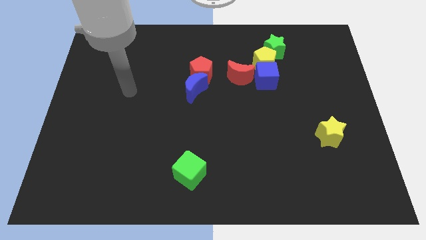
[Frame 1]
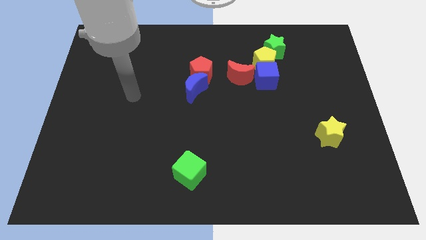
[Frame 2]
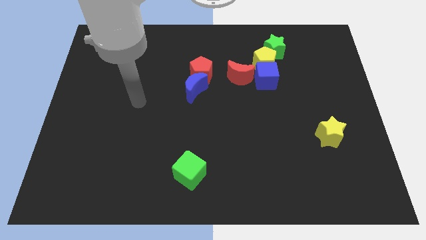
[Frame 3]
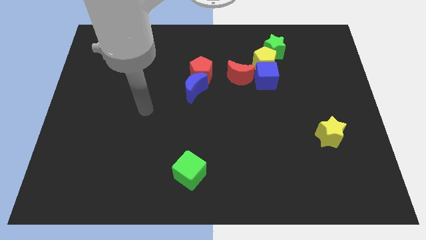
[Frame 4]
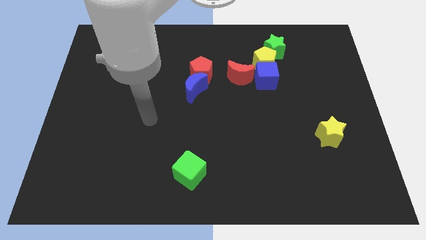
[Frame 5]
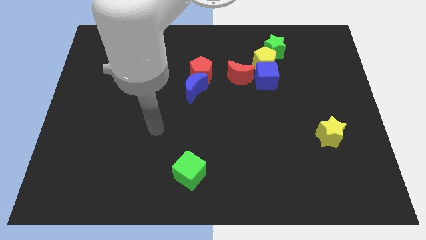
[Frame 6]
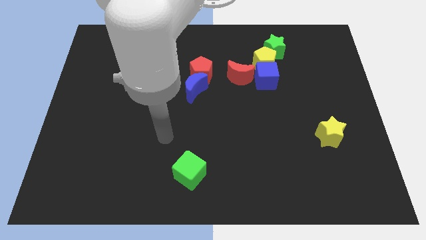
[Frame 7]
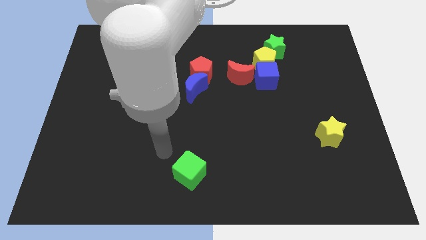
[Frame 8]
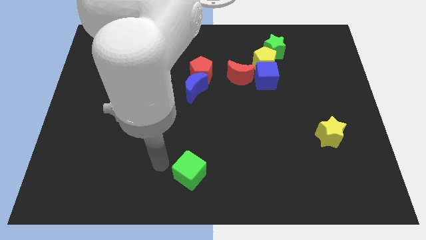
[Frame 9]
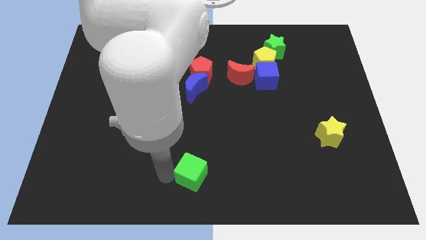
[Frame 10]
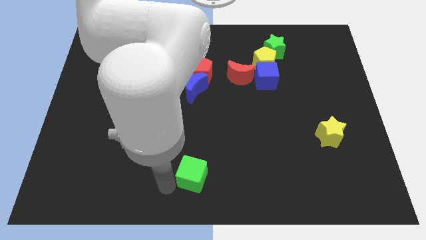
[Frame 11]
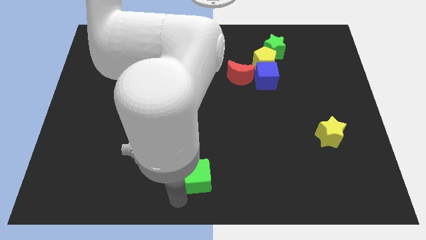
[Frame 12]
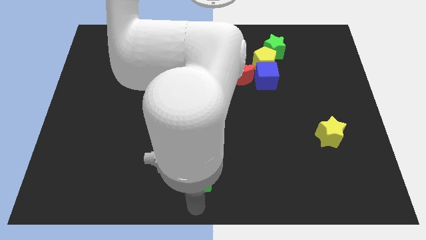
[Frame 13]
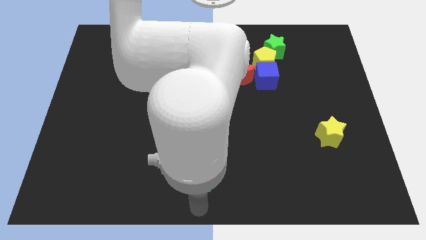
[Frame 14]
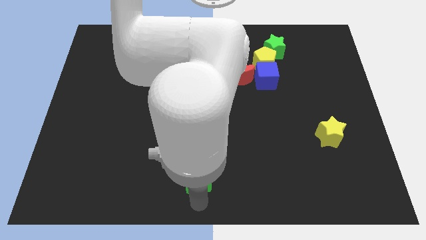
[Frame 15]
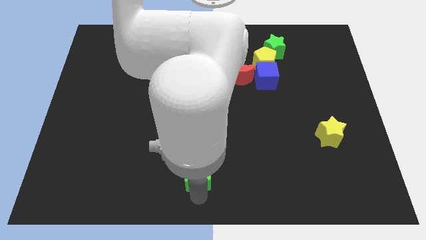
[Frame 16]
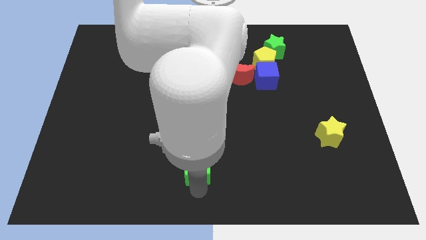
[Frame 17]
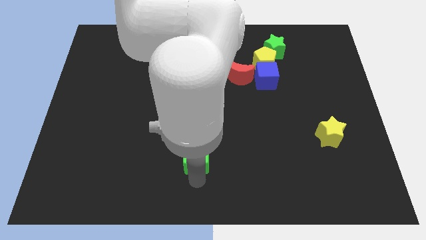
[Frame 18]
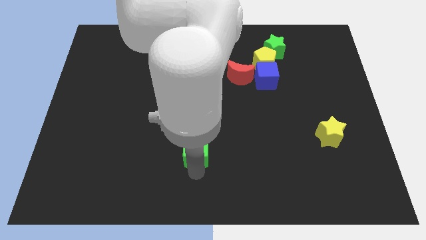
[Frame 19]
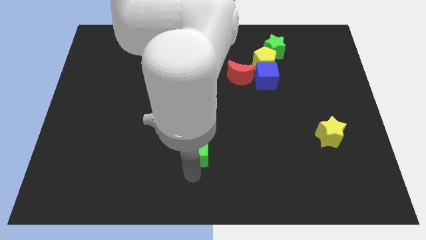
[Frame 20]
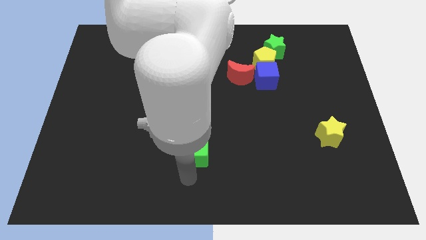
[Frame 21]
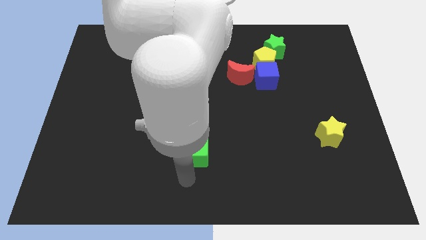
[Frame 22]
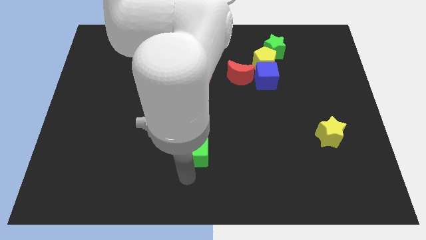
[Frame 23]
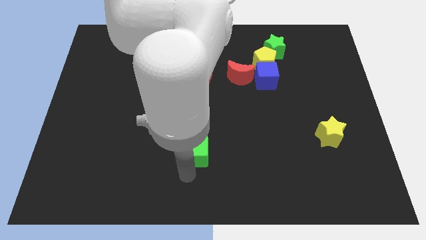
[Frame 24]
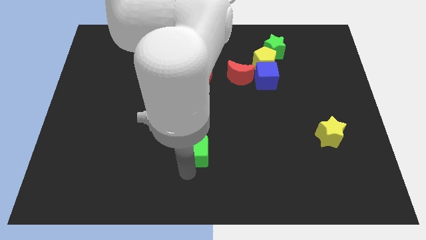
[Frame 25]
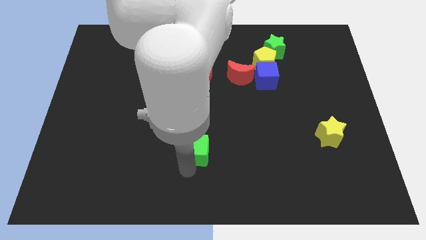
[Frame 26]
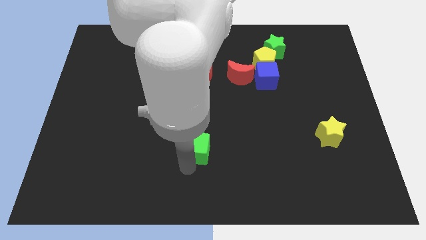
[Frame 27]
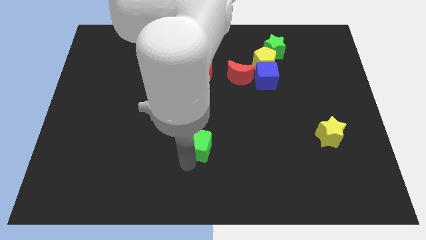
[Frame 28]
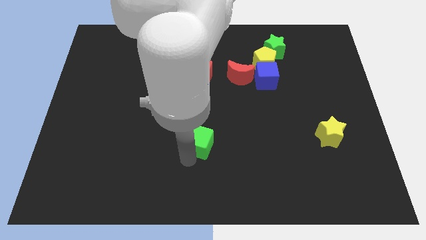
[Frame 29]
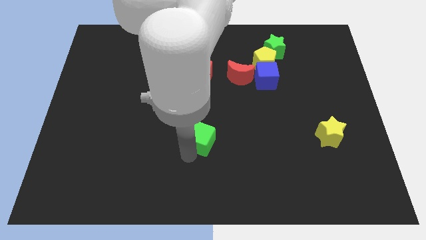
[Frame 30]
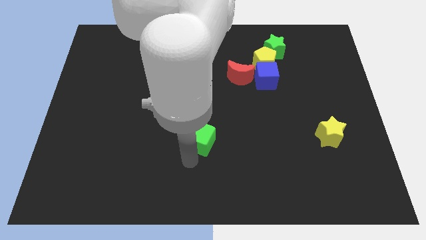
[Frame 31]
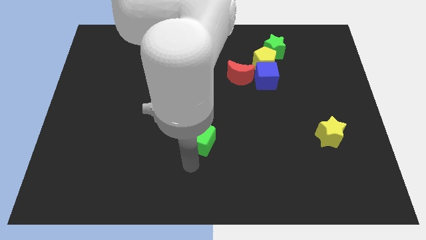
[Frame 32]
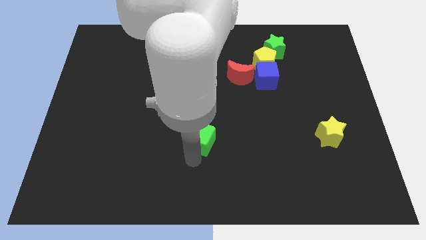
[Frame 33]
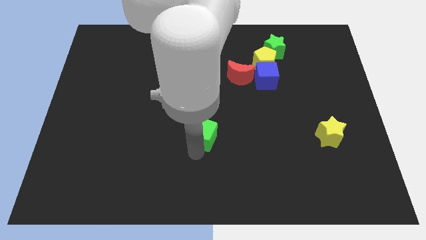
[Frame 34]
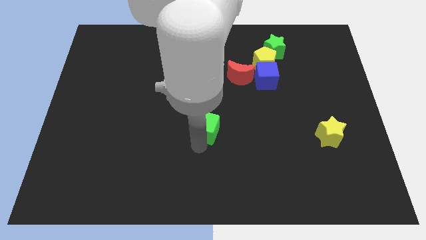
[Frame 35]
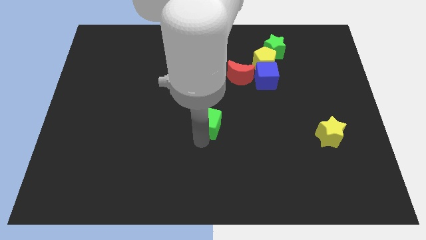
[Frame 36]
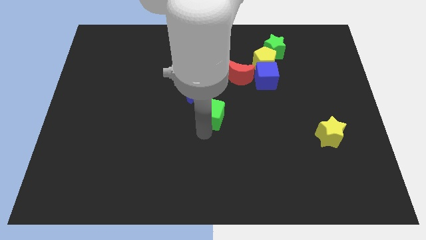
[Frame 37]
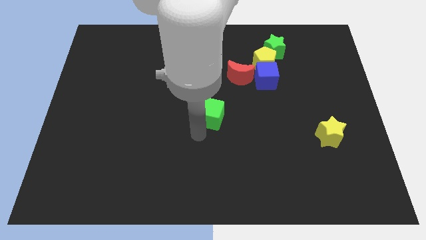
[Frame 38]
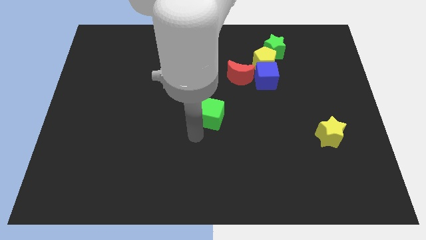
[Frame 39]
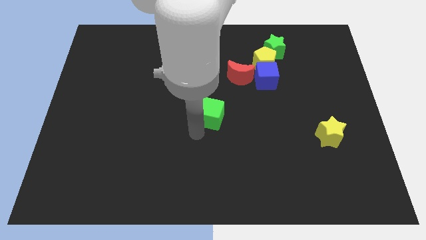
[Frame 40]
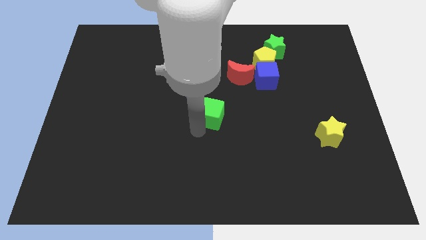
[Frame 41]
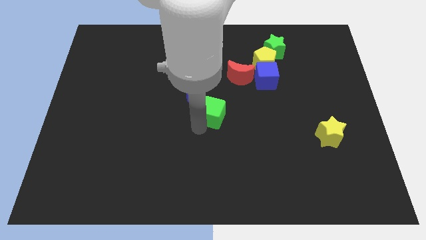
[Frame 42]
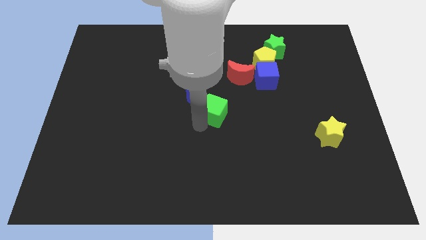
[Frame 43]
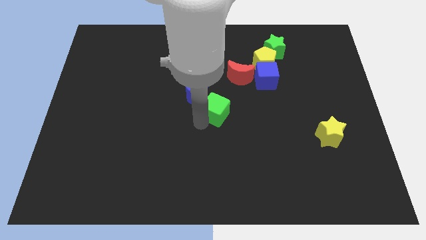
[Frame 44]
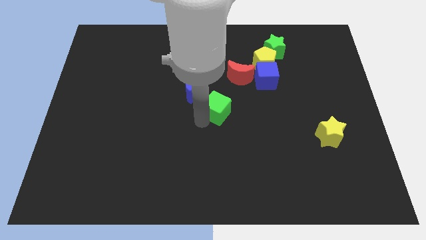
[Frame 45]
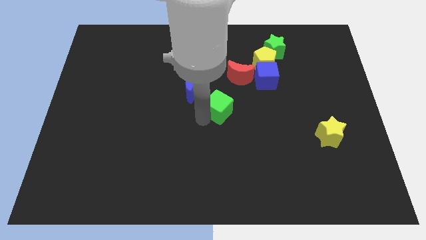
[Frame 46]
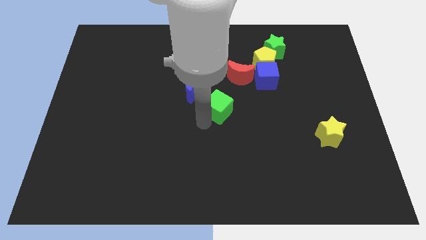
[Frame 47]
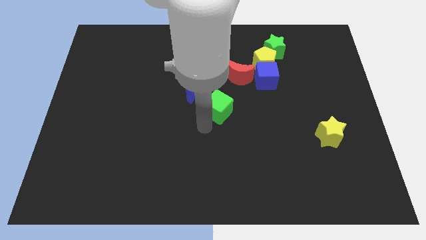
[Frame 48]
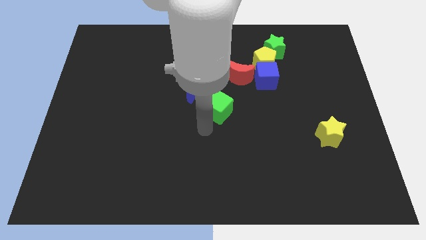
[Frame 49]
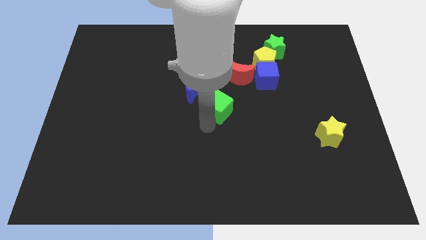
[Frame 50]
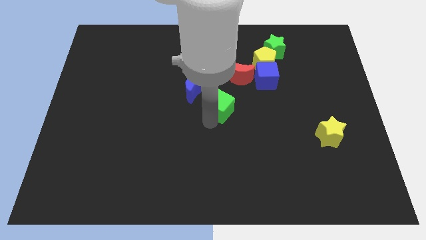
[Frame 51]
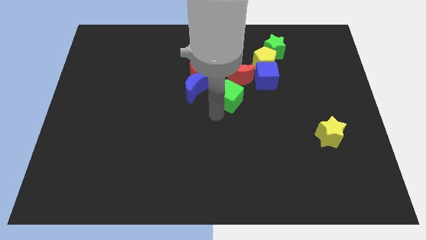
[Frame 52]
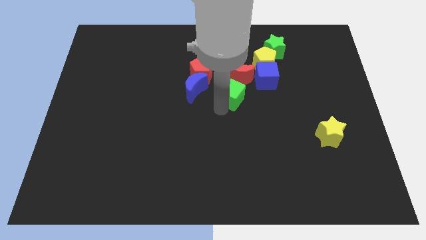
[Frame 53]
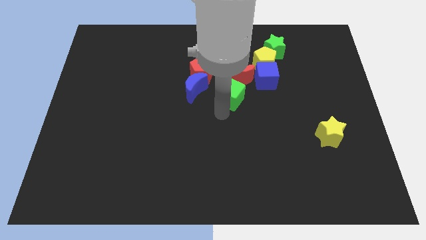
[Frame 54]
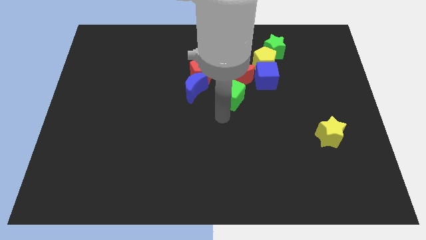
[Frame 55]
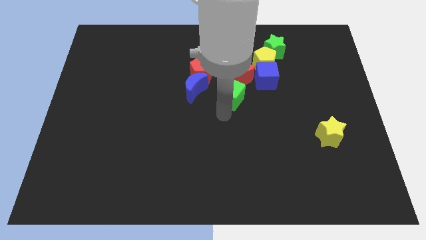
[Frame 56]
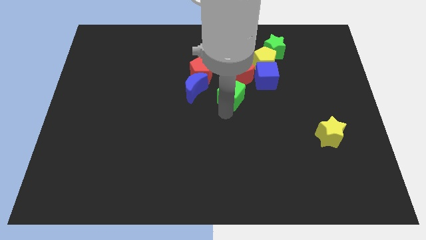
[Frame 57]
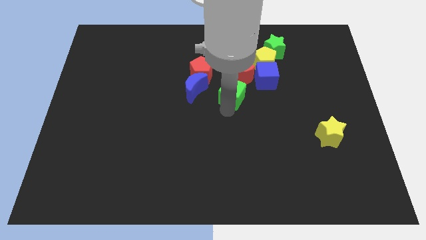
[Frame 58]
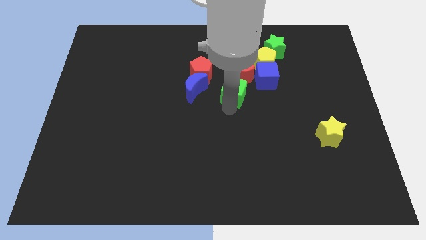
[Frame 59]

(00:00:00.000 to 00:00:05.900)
move the green cube close to the red moon

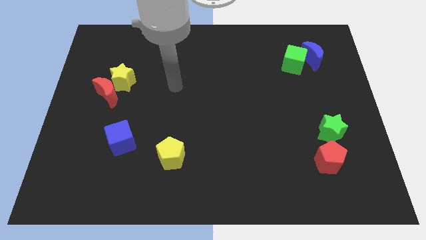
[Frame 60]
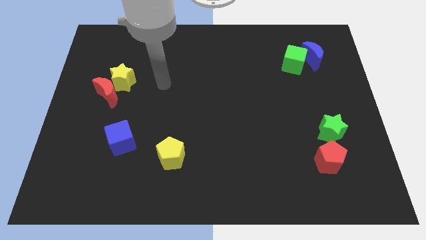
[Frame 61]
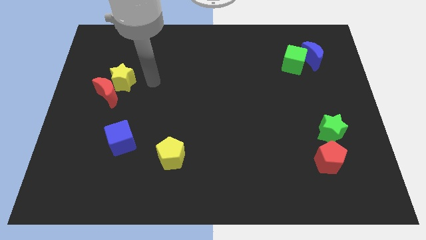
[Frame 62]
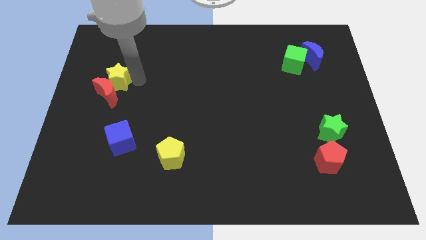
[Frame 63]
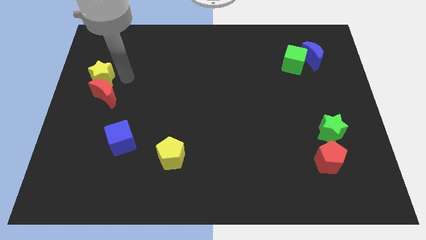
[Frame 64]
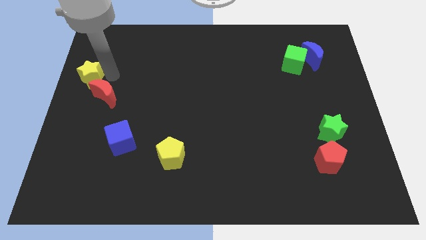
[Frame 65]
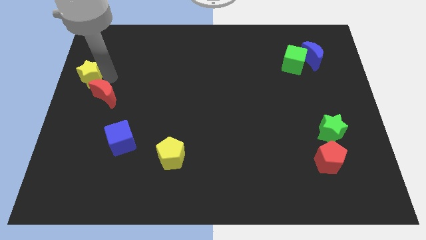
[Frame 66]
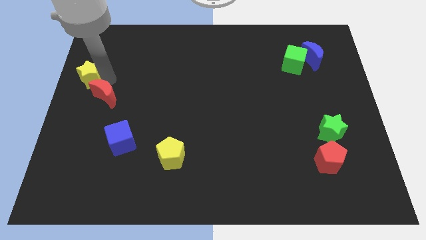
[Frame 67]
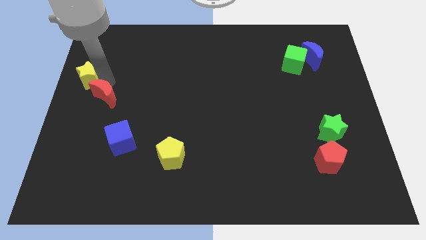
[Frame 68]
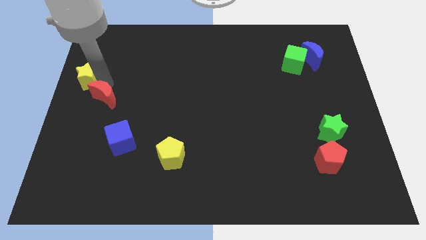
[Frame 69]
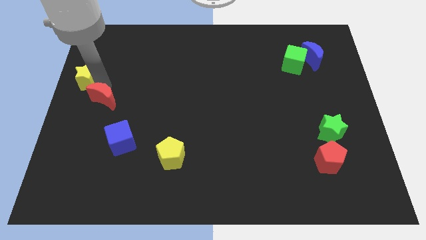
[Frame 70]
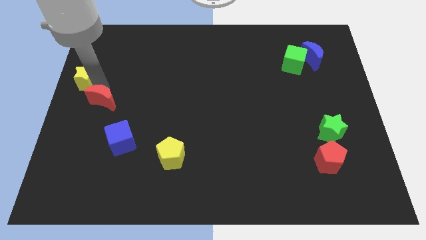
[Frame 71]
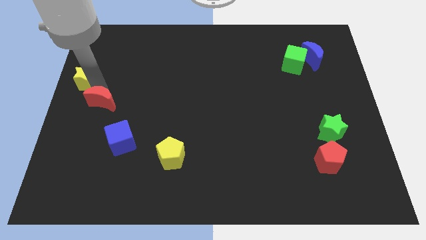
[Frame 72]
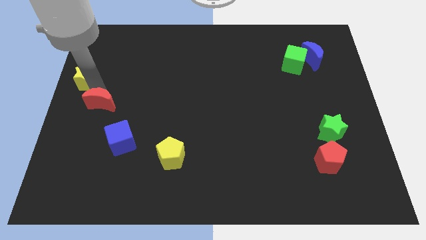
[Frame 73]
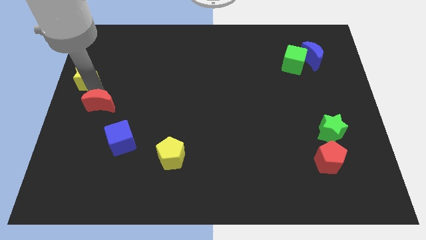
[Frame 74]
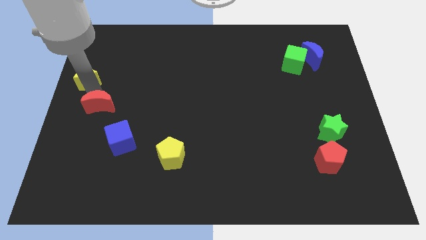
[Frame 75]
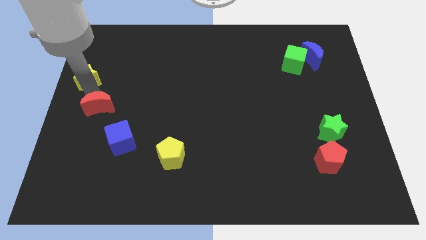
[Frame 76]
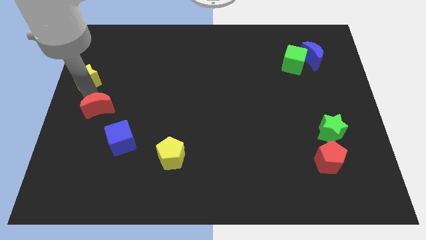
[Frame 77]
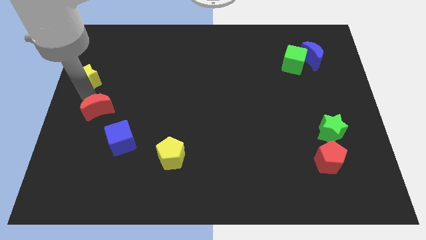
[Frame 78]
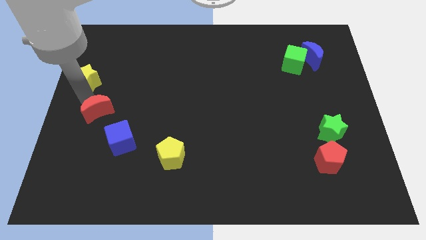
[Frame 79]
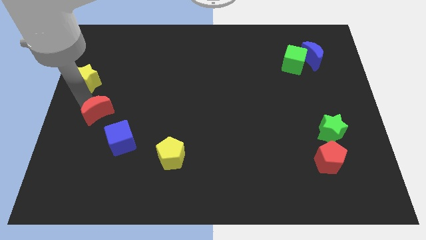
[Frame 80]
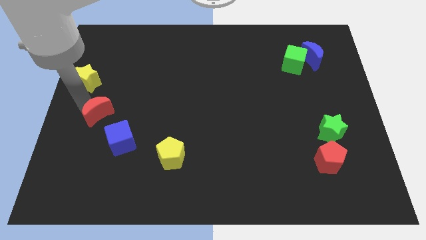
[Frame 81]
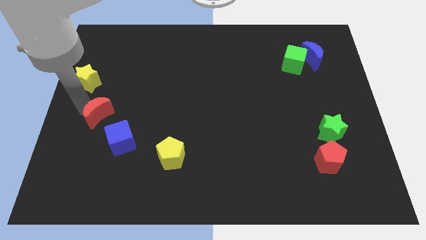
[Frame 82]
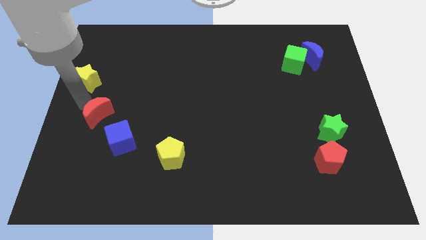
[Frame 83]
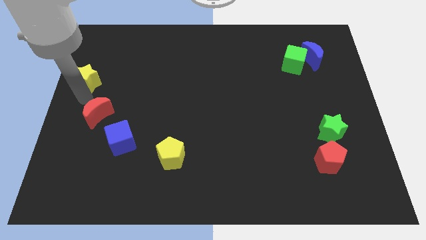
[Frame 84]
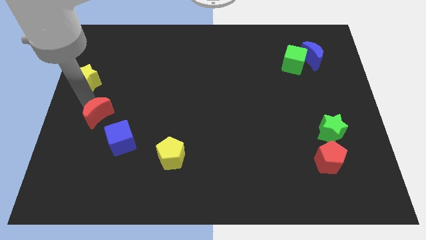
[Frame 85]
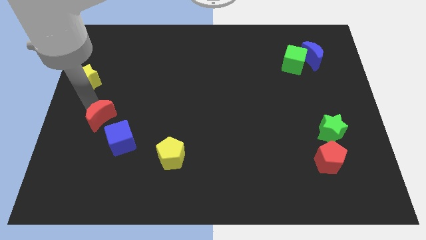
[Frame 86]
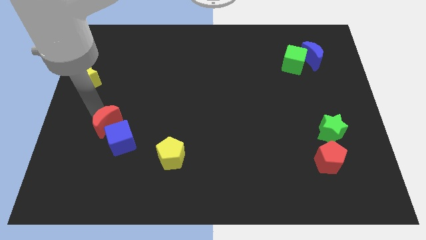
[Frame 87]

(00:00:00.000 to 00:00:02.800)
move the red moon towards the blue cube
